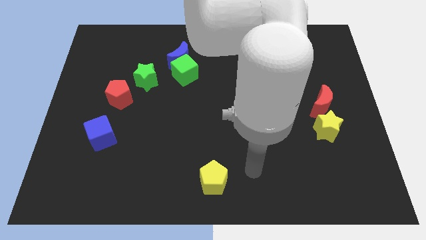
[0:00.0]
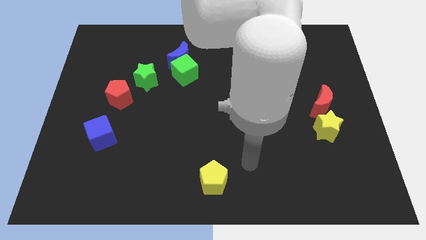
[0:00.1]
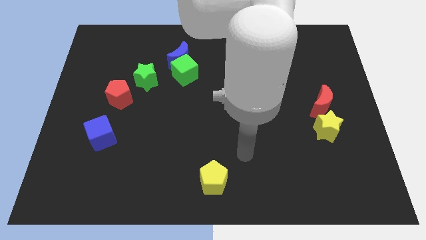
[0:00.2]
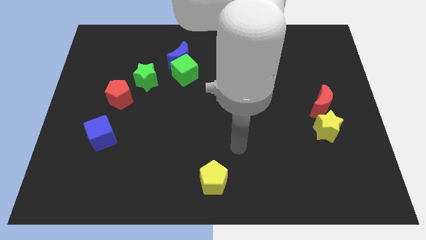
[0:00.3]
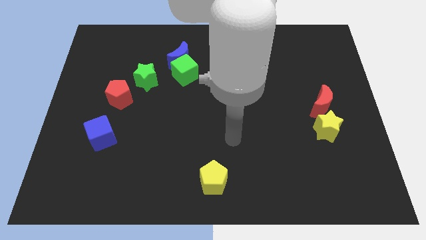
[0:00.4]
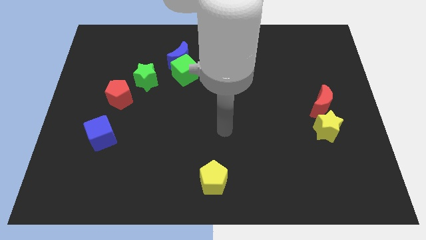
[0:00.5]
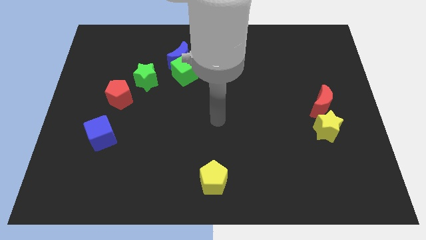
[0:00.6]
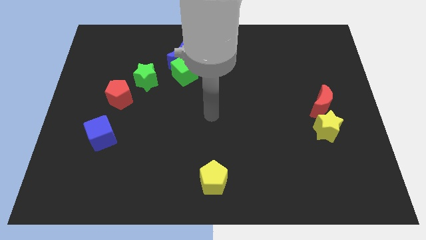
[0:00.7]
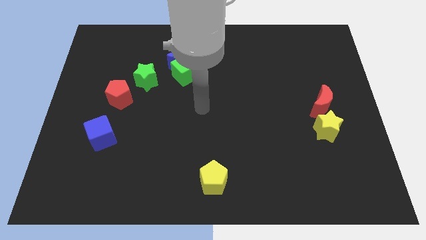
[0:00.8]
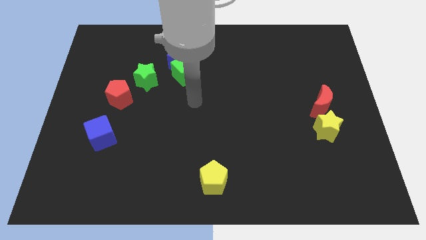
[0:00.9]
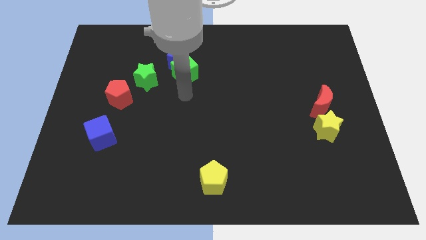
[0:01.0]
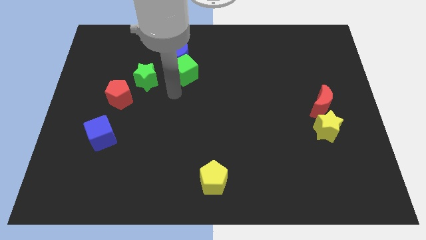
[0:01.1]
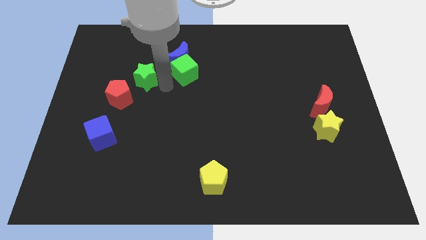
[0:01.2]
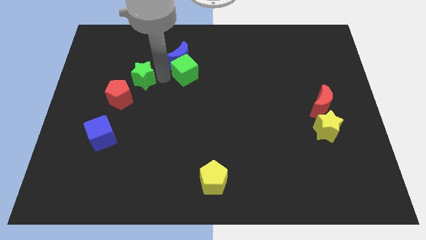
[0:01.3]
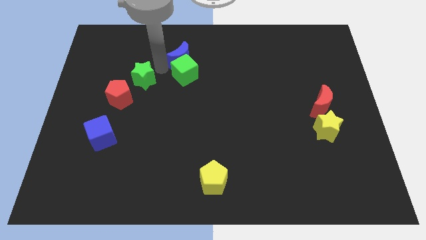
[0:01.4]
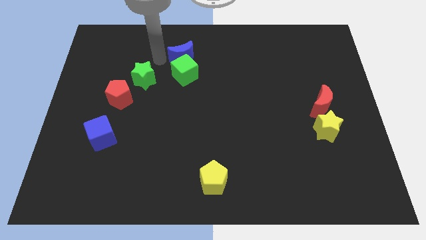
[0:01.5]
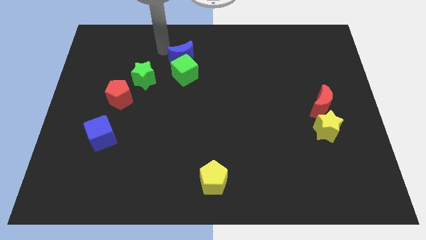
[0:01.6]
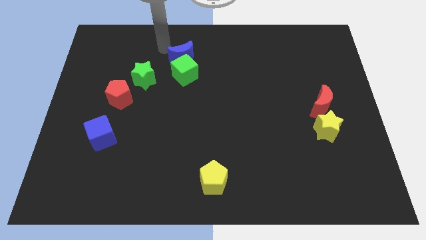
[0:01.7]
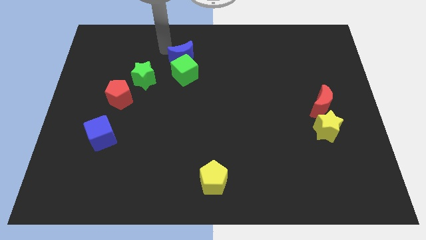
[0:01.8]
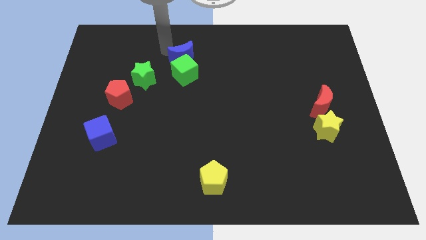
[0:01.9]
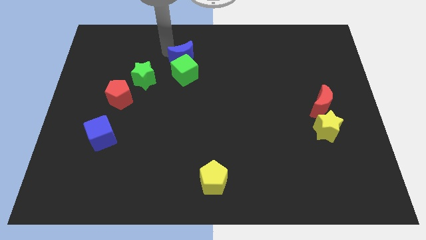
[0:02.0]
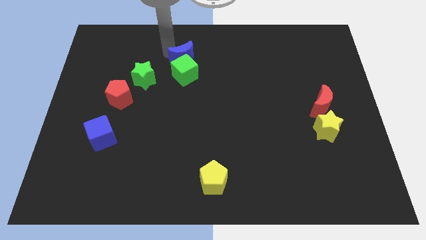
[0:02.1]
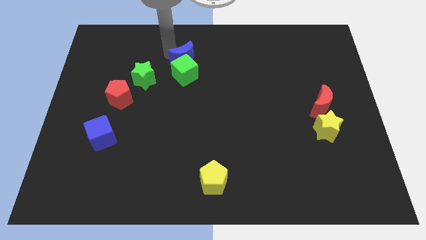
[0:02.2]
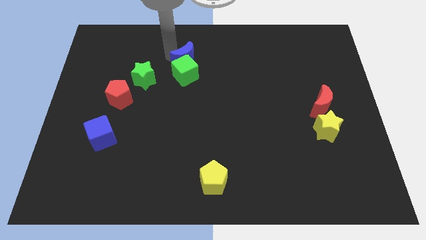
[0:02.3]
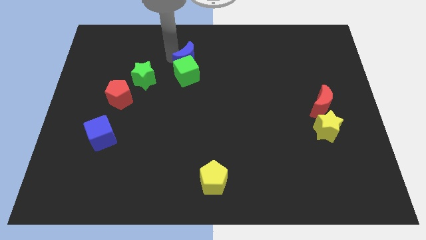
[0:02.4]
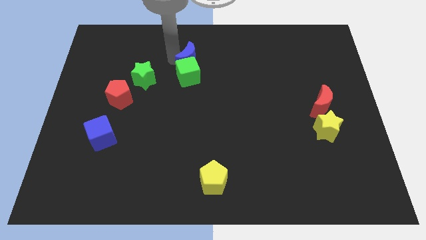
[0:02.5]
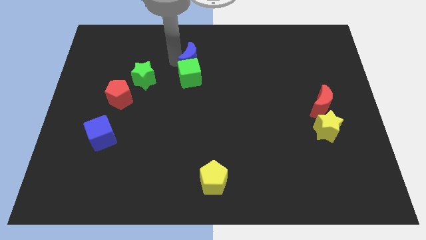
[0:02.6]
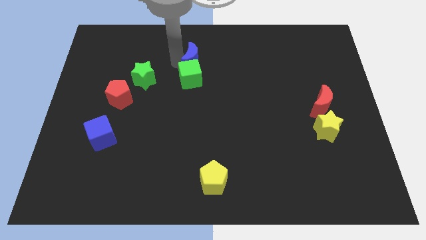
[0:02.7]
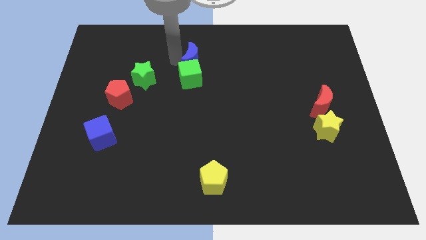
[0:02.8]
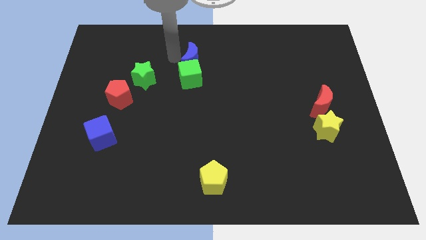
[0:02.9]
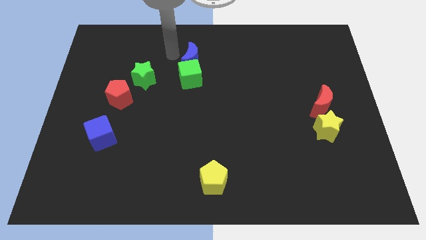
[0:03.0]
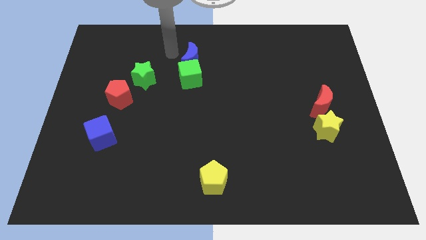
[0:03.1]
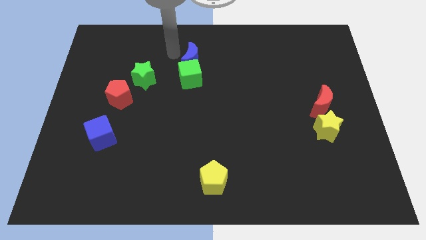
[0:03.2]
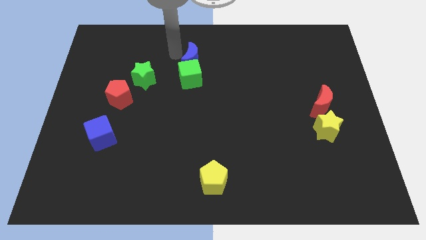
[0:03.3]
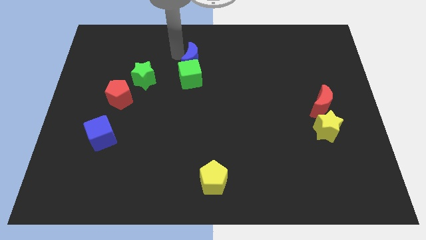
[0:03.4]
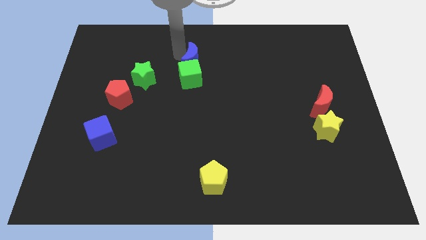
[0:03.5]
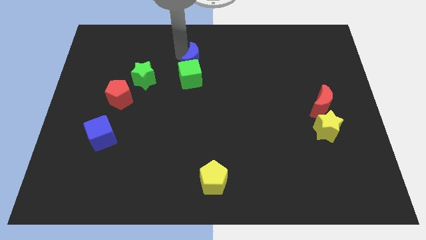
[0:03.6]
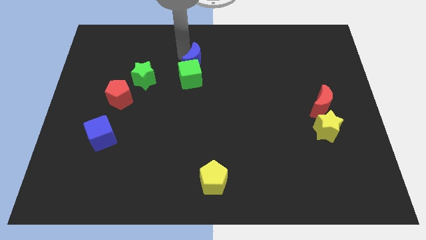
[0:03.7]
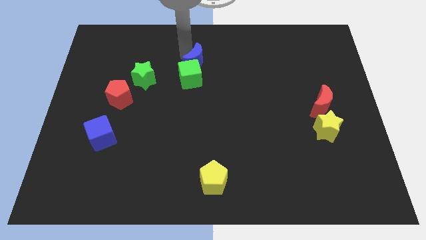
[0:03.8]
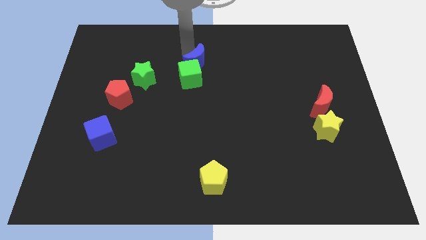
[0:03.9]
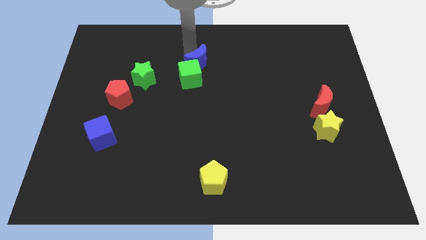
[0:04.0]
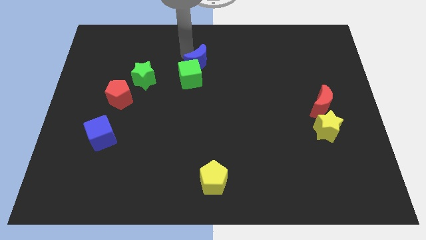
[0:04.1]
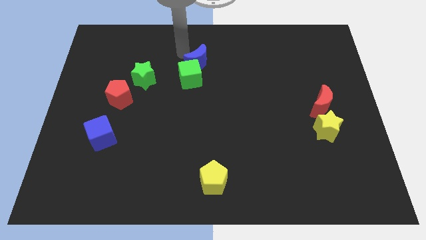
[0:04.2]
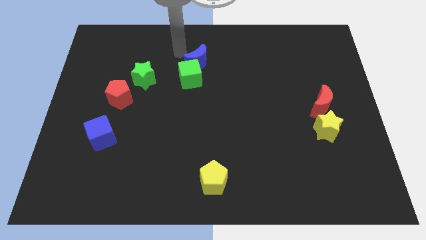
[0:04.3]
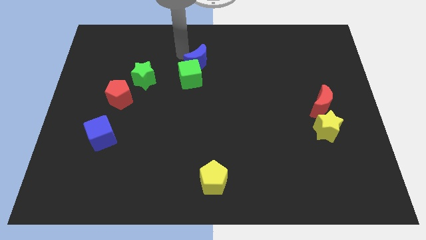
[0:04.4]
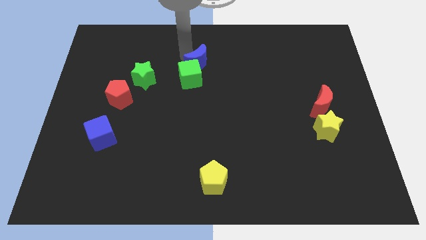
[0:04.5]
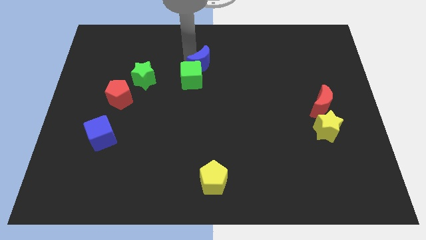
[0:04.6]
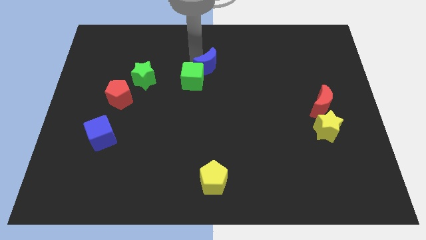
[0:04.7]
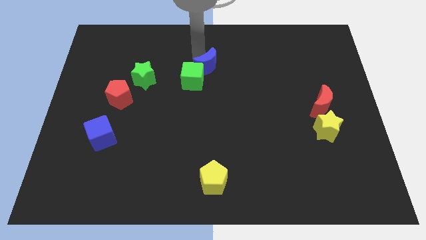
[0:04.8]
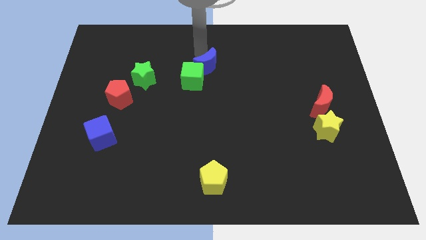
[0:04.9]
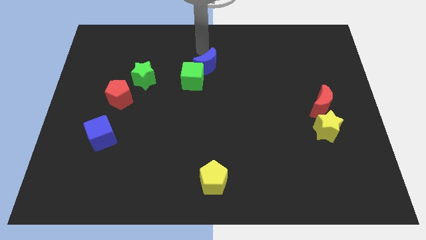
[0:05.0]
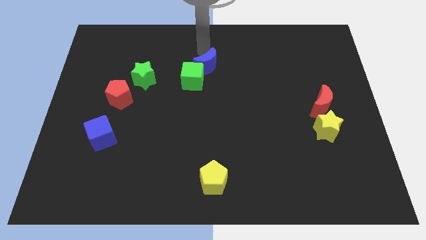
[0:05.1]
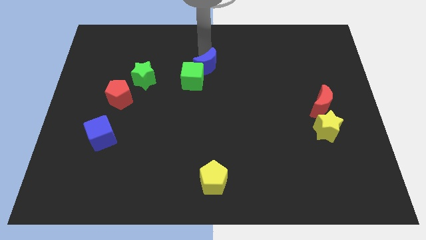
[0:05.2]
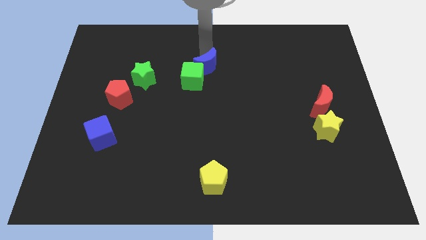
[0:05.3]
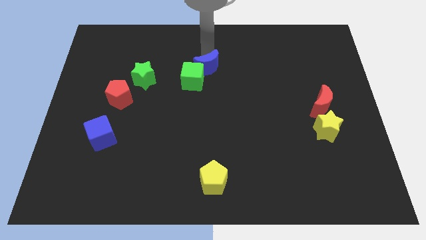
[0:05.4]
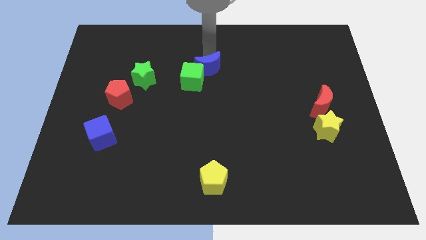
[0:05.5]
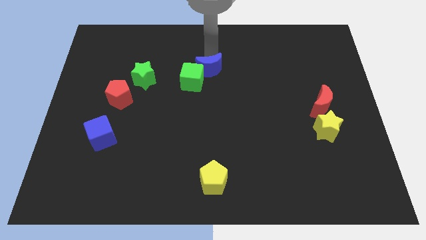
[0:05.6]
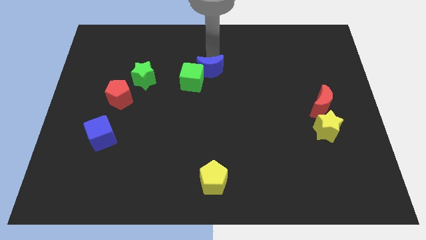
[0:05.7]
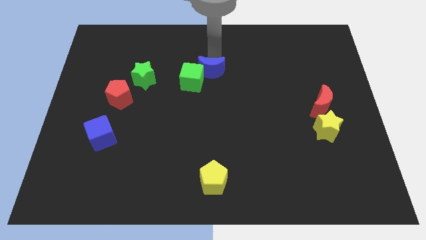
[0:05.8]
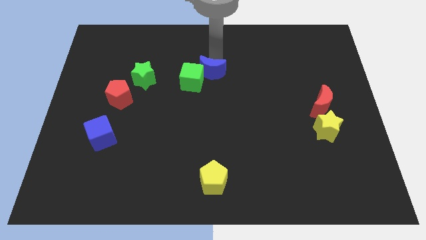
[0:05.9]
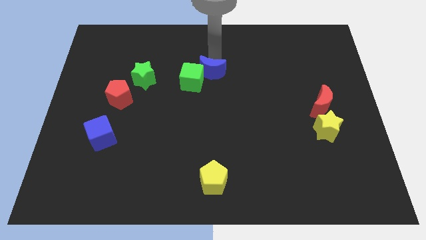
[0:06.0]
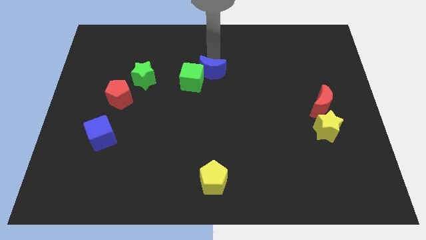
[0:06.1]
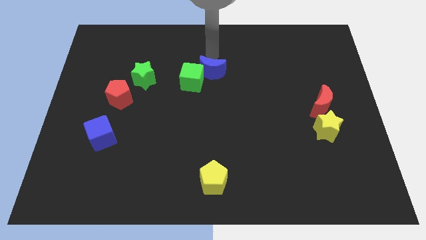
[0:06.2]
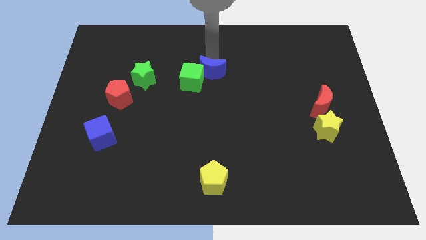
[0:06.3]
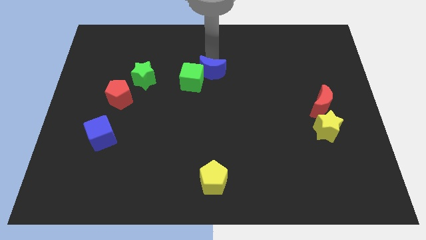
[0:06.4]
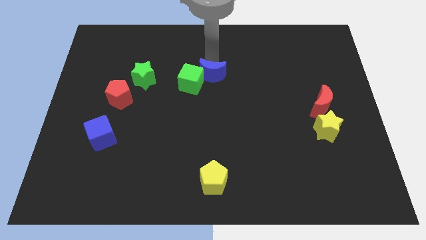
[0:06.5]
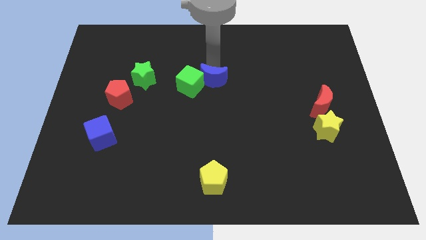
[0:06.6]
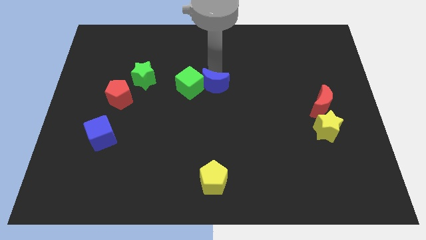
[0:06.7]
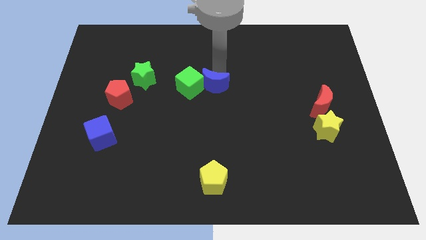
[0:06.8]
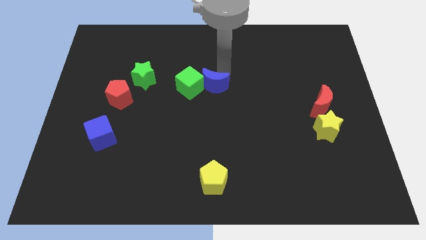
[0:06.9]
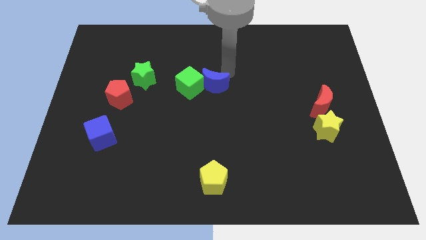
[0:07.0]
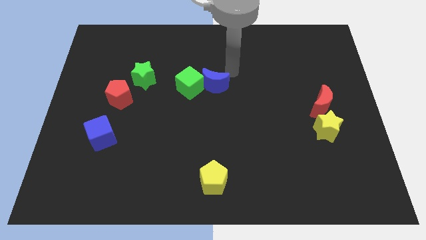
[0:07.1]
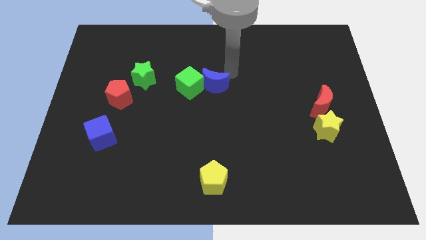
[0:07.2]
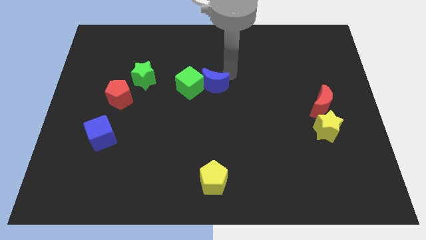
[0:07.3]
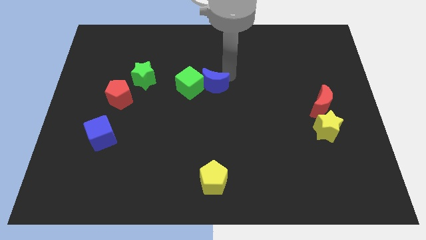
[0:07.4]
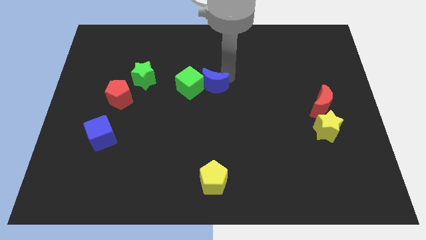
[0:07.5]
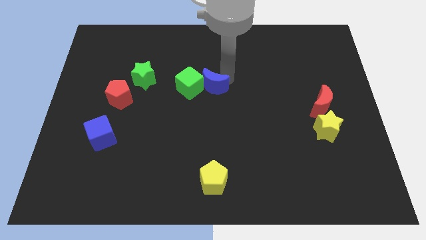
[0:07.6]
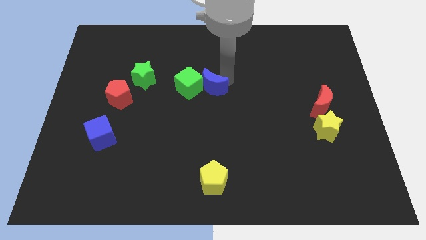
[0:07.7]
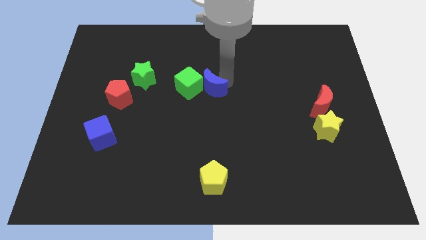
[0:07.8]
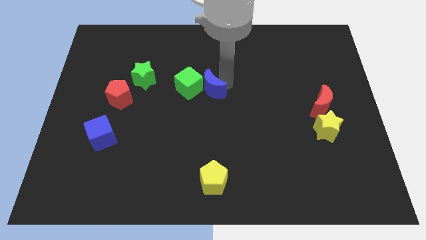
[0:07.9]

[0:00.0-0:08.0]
push the blue moon somewhat down
